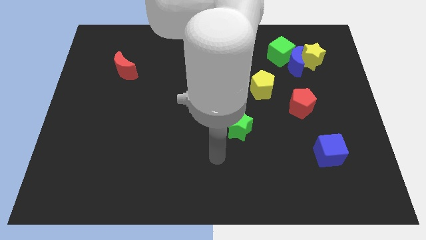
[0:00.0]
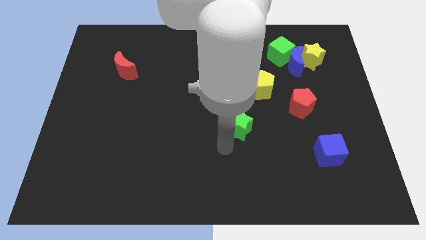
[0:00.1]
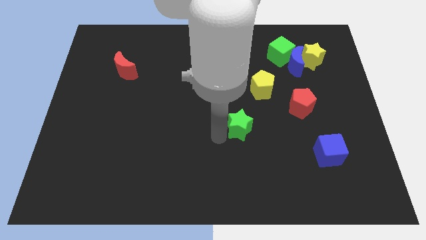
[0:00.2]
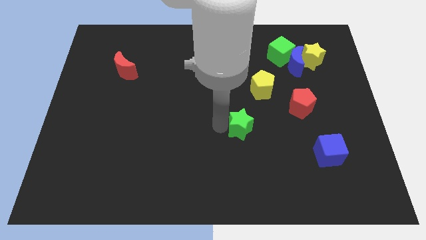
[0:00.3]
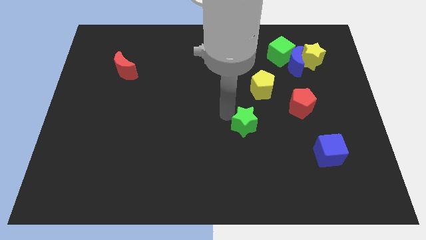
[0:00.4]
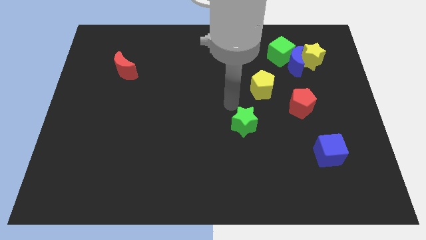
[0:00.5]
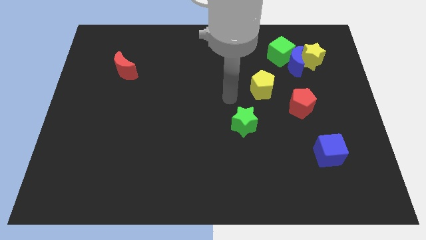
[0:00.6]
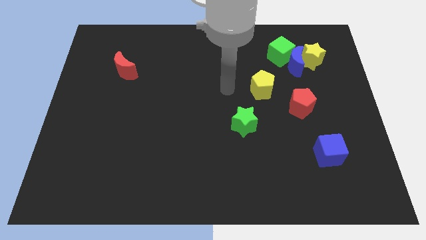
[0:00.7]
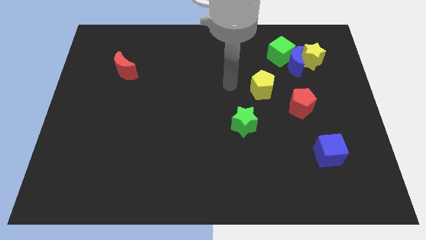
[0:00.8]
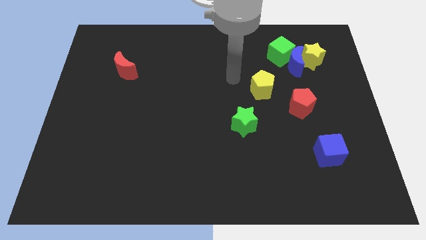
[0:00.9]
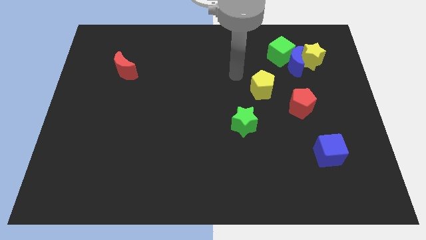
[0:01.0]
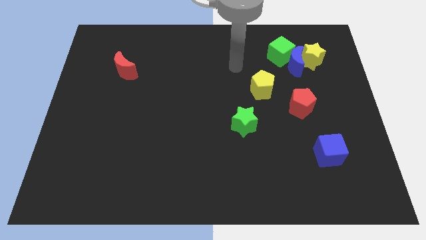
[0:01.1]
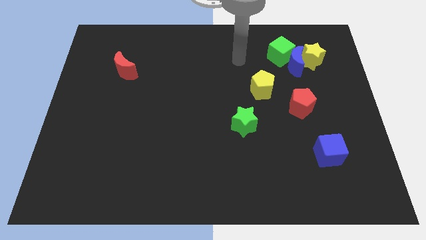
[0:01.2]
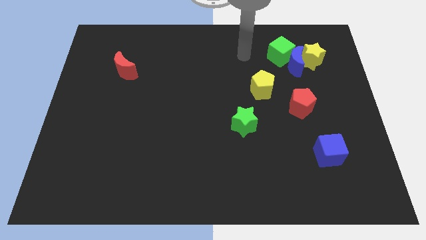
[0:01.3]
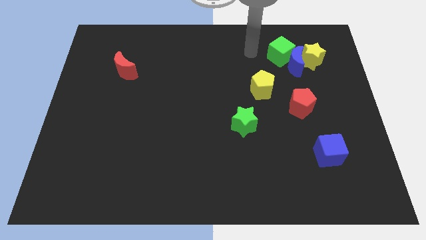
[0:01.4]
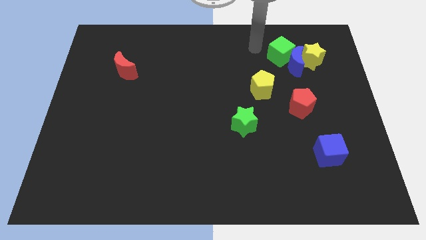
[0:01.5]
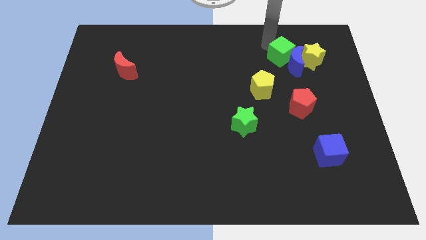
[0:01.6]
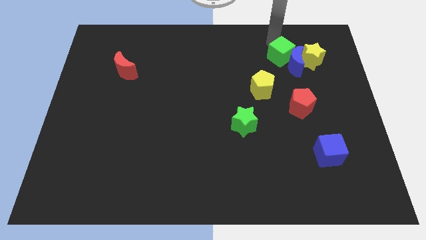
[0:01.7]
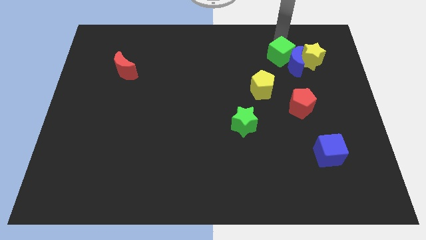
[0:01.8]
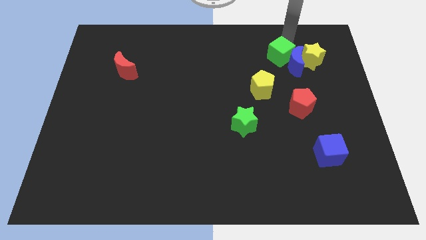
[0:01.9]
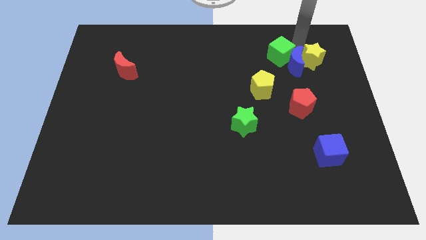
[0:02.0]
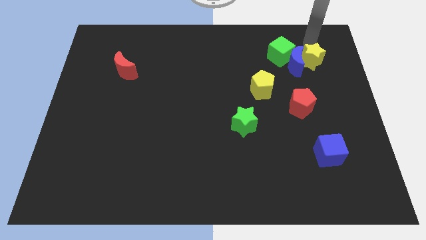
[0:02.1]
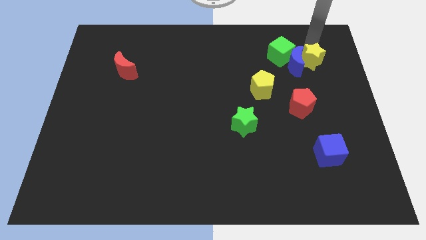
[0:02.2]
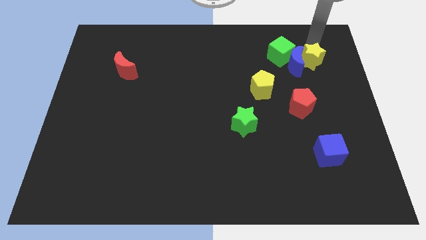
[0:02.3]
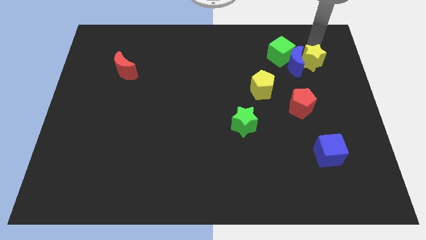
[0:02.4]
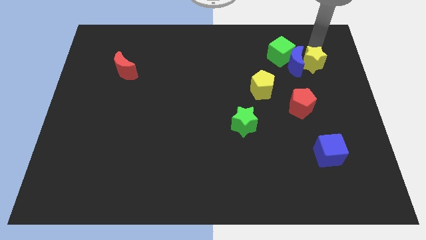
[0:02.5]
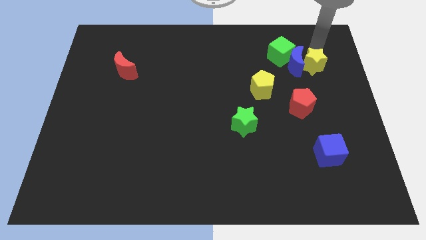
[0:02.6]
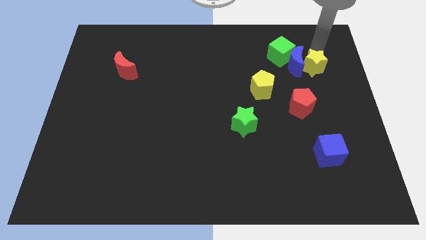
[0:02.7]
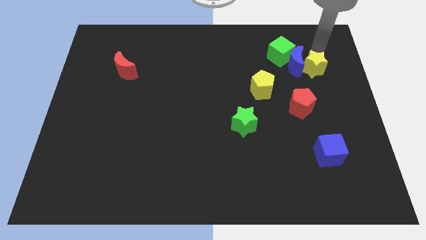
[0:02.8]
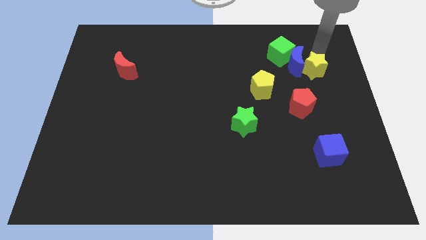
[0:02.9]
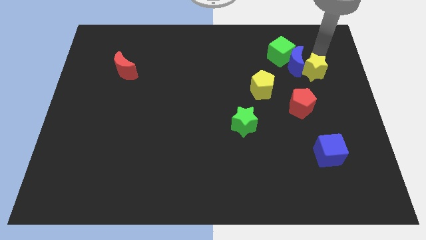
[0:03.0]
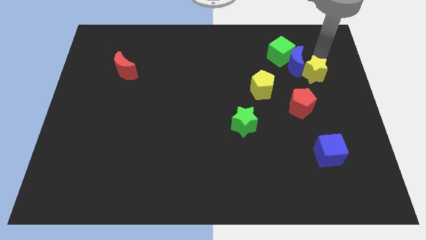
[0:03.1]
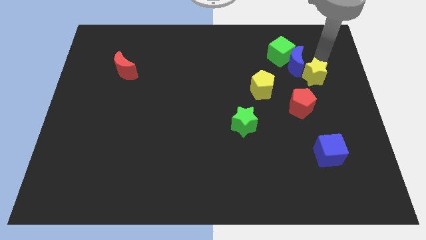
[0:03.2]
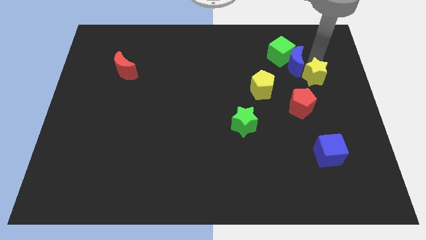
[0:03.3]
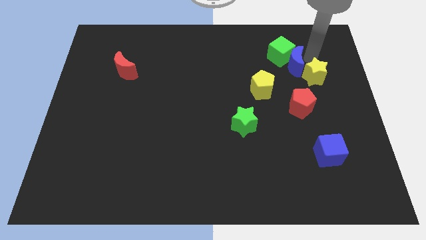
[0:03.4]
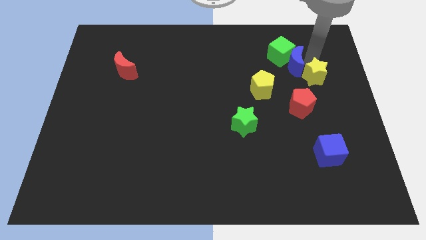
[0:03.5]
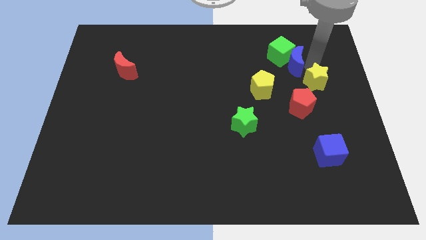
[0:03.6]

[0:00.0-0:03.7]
move the yellow star a little down

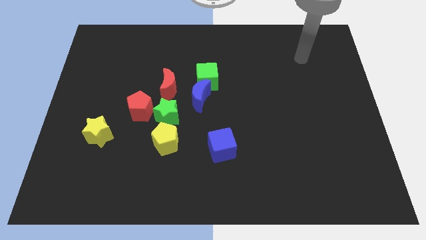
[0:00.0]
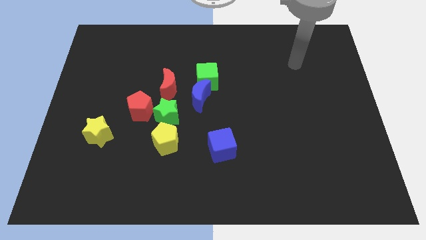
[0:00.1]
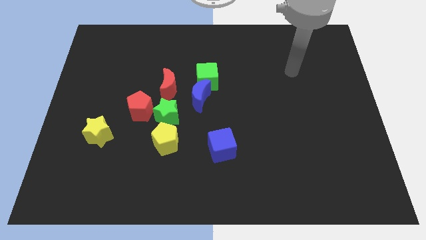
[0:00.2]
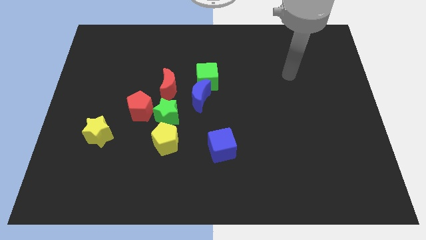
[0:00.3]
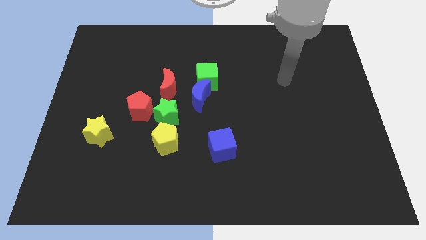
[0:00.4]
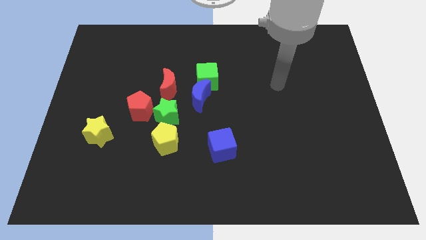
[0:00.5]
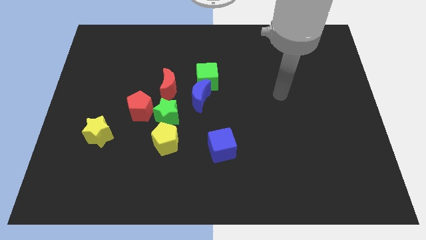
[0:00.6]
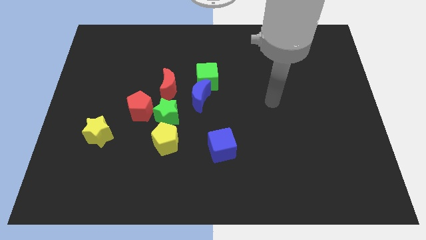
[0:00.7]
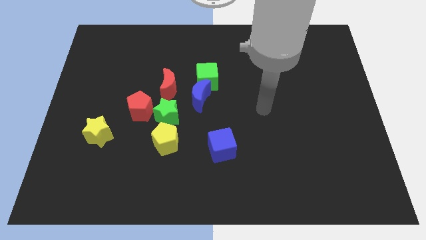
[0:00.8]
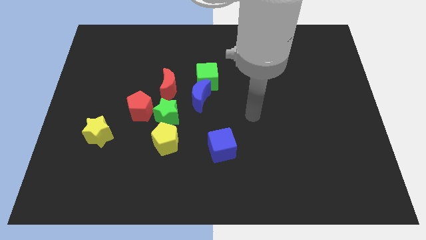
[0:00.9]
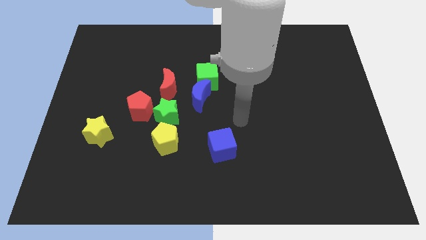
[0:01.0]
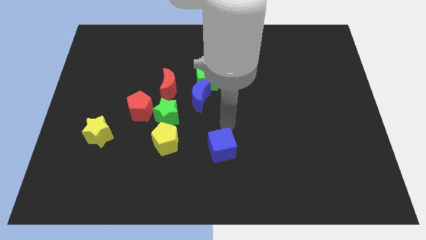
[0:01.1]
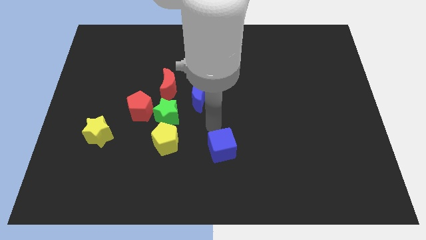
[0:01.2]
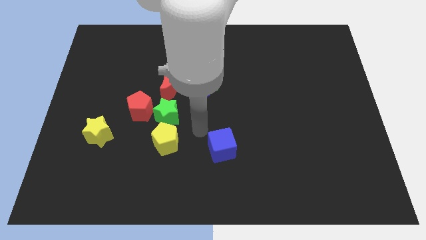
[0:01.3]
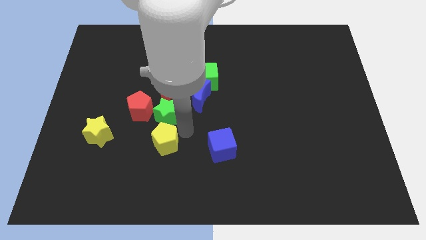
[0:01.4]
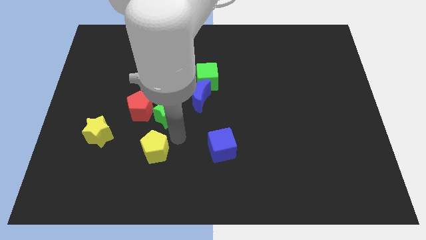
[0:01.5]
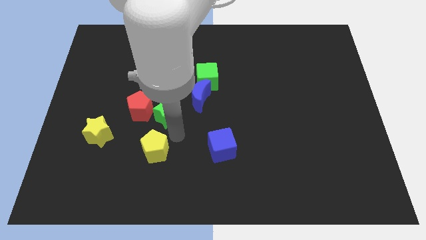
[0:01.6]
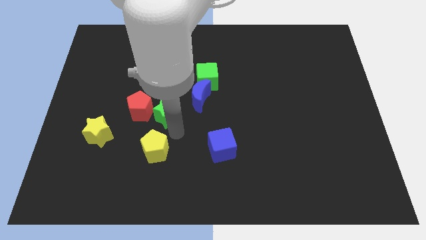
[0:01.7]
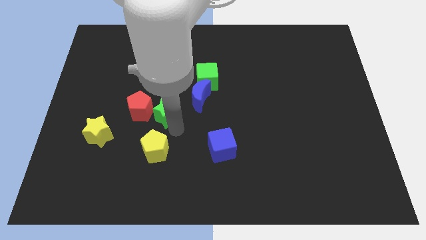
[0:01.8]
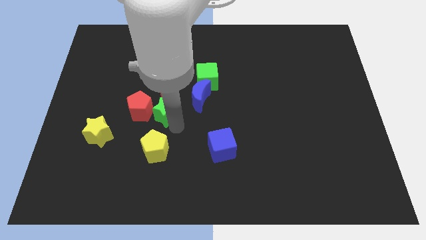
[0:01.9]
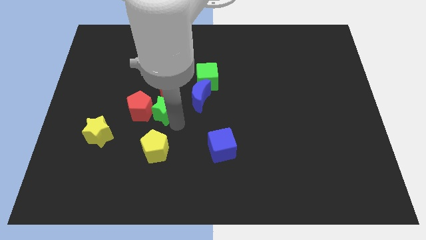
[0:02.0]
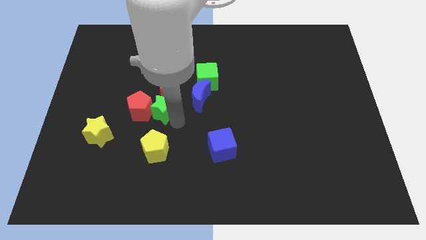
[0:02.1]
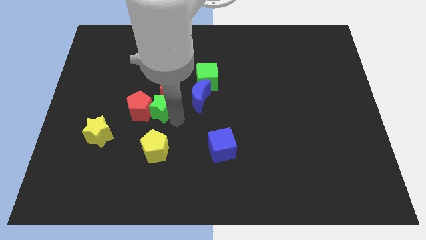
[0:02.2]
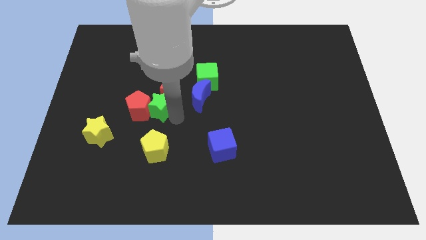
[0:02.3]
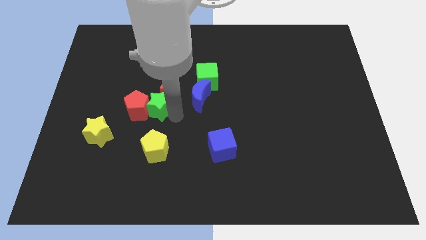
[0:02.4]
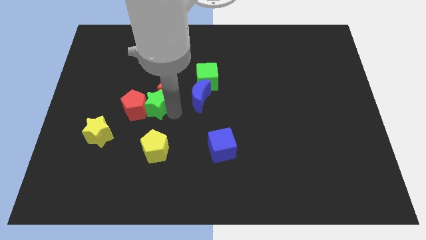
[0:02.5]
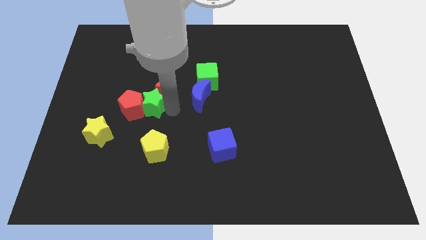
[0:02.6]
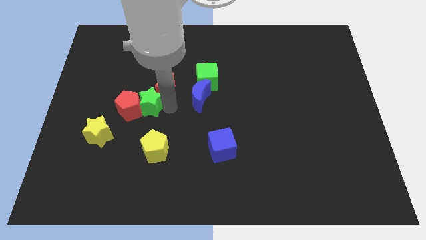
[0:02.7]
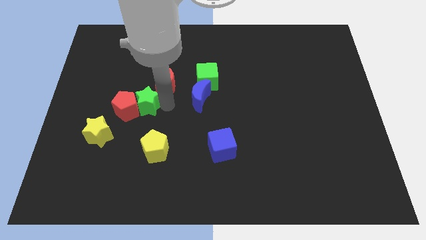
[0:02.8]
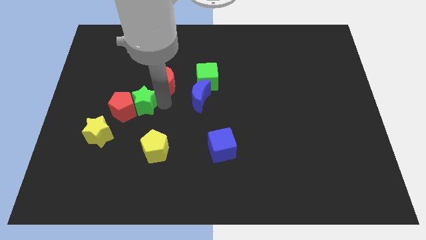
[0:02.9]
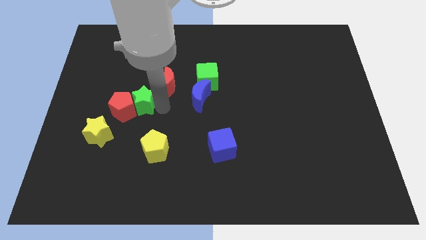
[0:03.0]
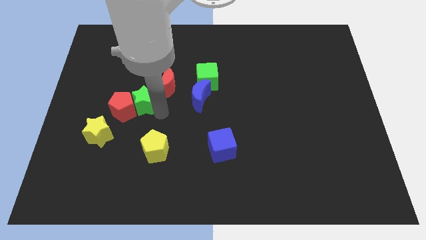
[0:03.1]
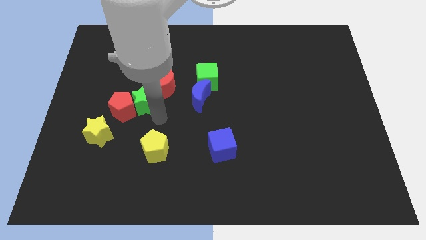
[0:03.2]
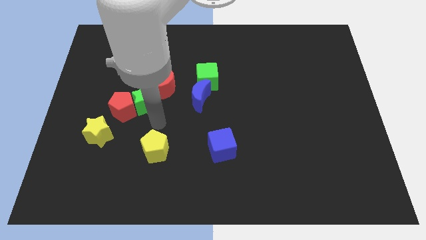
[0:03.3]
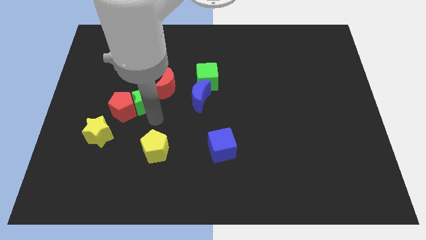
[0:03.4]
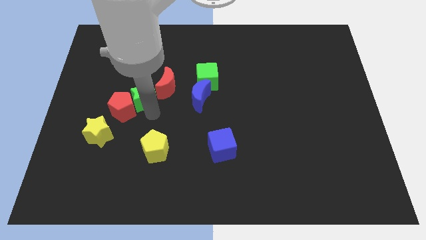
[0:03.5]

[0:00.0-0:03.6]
slightly push the green star up and left

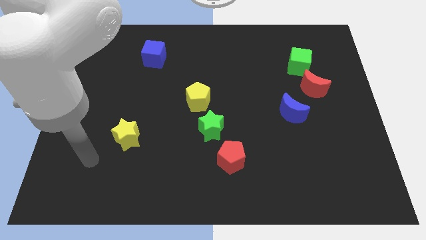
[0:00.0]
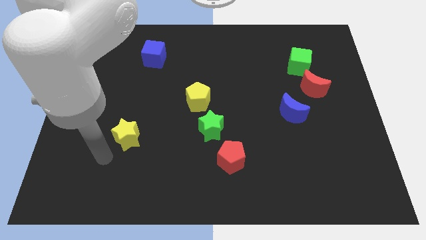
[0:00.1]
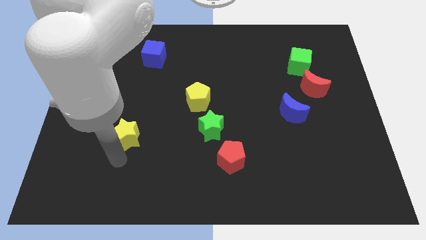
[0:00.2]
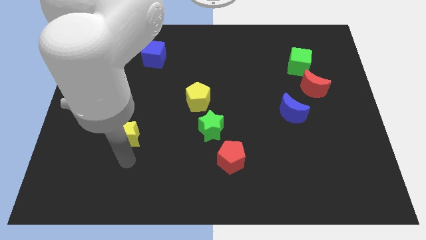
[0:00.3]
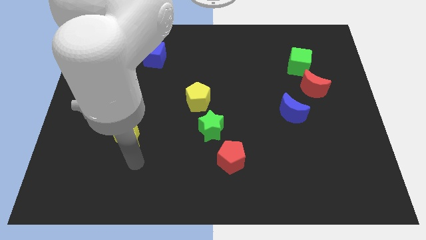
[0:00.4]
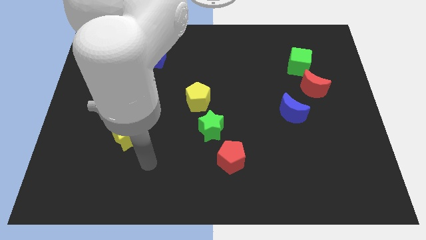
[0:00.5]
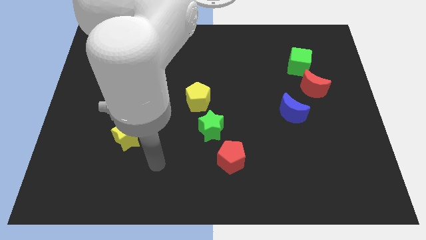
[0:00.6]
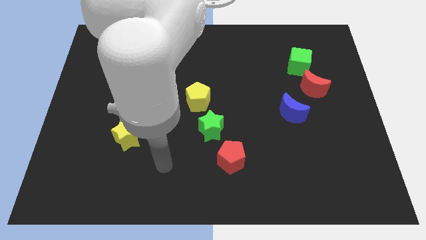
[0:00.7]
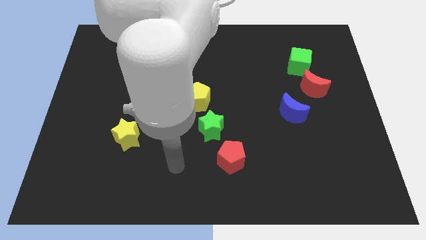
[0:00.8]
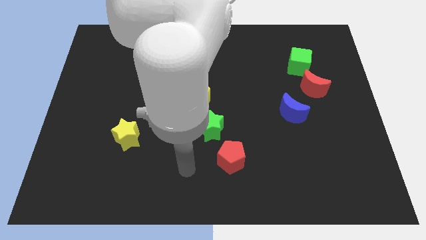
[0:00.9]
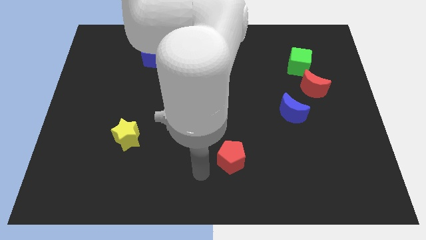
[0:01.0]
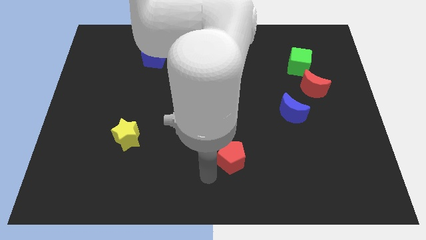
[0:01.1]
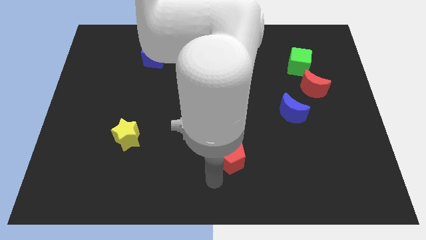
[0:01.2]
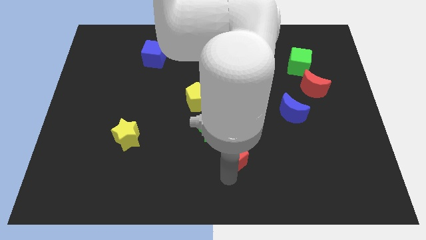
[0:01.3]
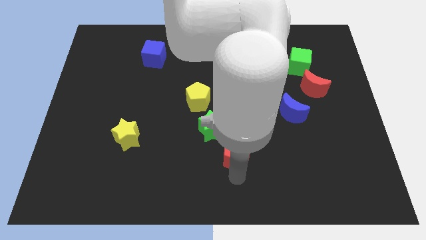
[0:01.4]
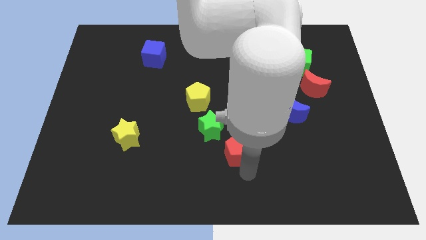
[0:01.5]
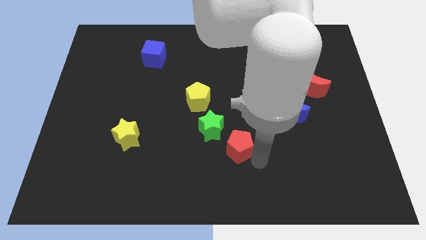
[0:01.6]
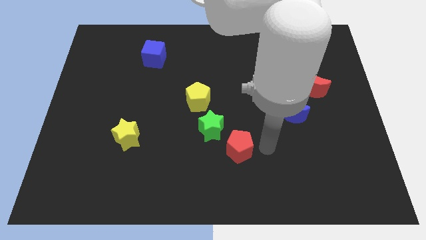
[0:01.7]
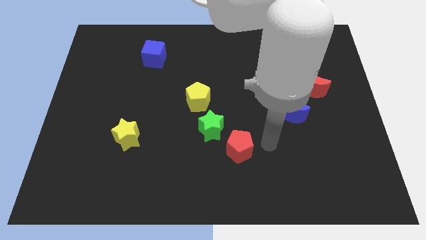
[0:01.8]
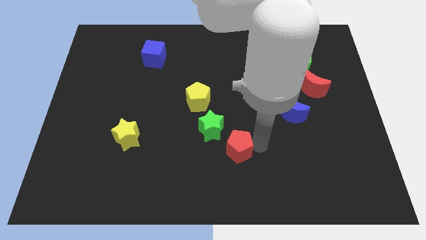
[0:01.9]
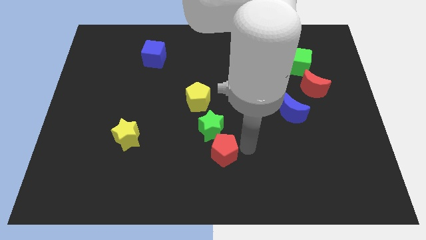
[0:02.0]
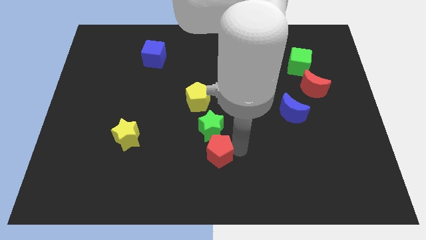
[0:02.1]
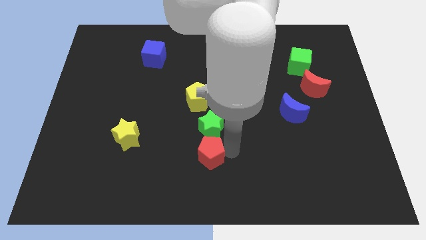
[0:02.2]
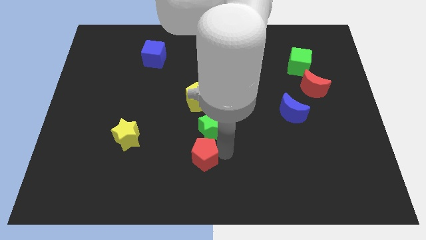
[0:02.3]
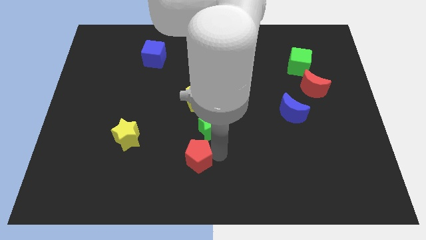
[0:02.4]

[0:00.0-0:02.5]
slide the red pentagon somewhat to the left
